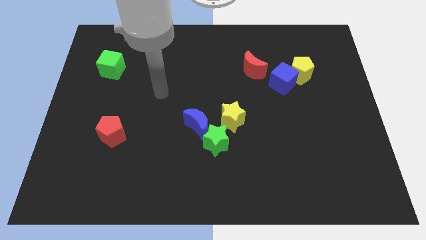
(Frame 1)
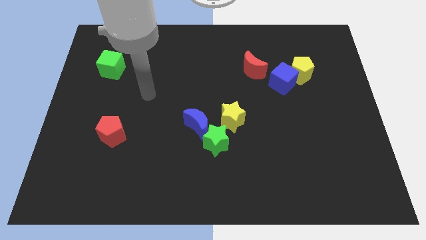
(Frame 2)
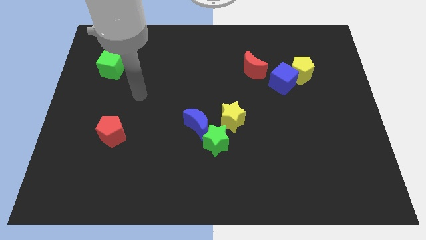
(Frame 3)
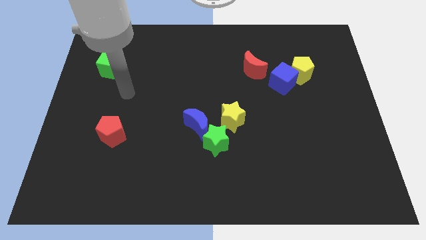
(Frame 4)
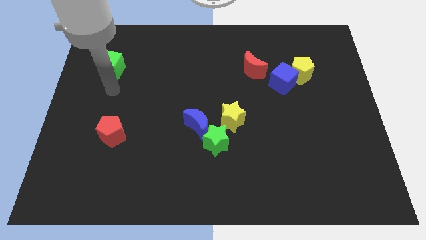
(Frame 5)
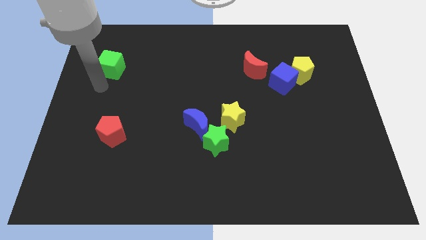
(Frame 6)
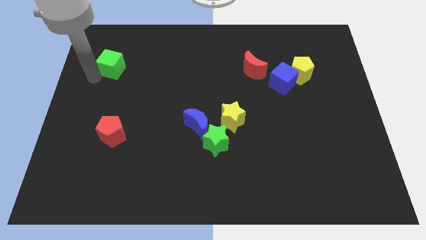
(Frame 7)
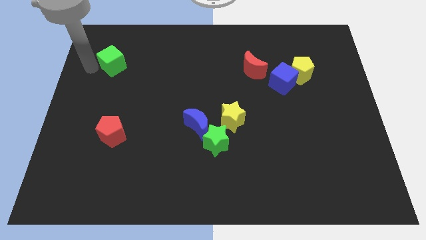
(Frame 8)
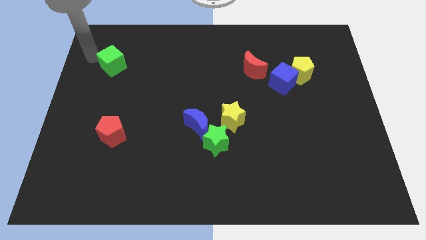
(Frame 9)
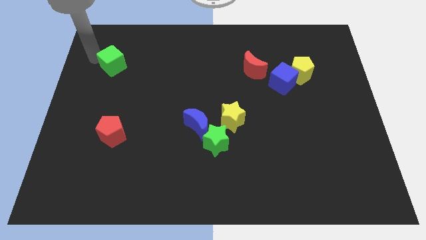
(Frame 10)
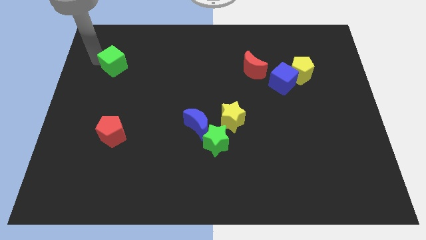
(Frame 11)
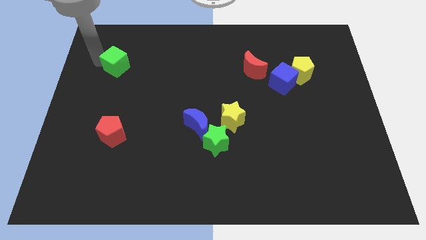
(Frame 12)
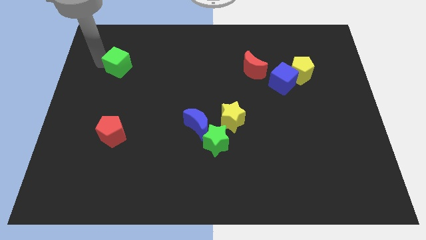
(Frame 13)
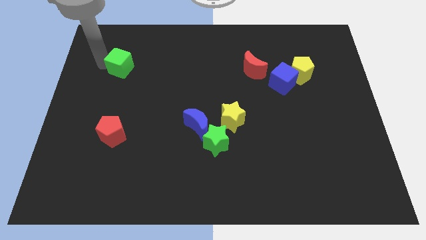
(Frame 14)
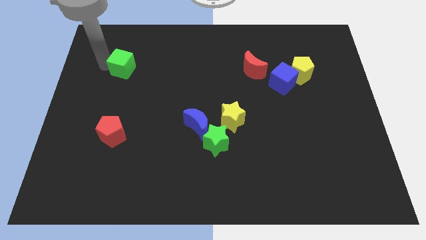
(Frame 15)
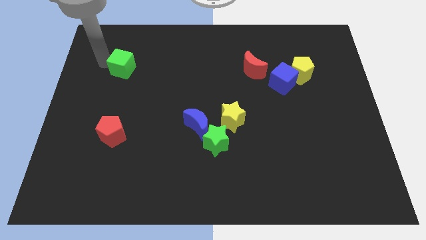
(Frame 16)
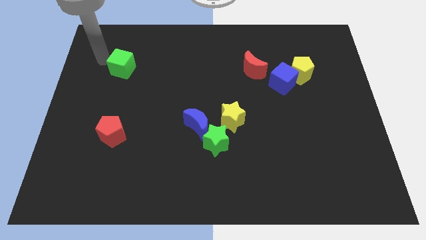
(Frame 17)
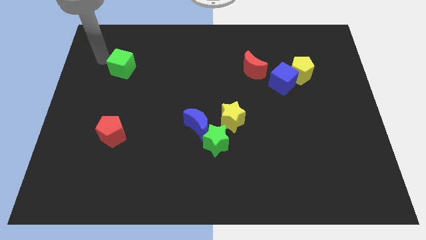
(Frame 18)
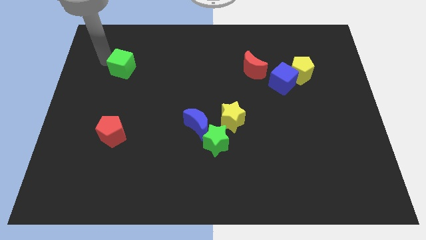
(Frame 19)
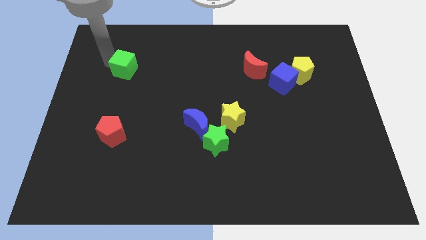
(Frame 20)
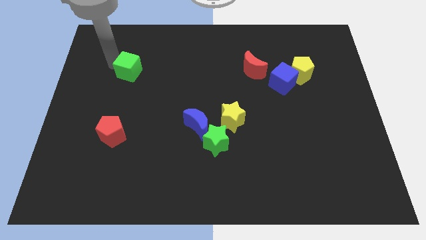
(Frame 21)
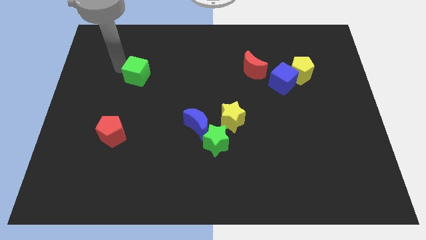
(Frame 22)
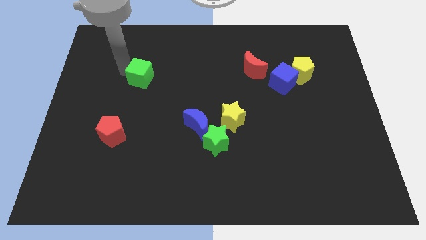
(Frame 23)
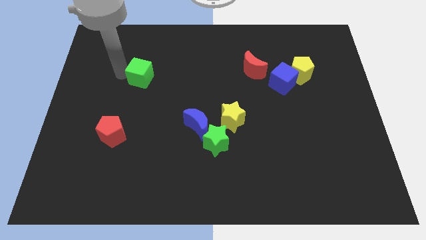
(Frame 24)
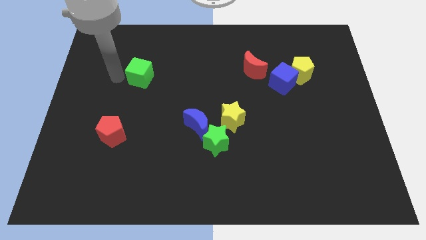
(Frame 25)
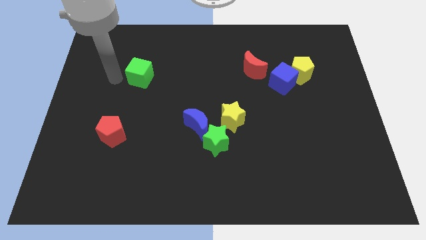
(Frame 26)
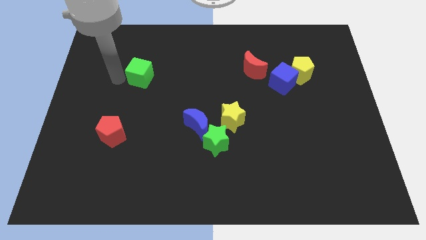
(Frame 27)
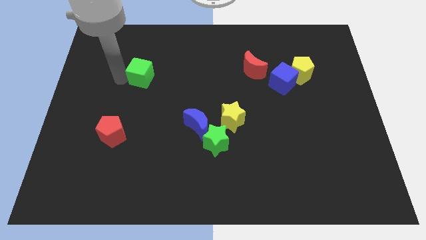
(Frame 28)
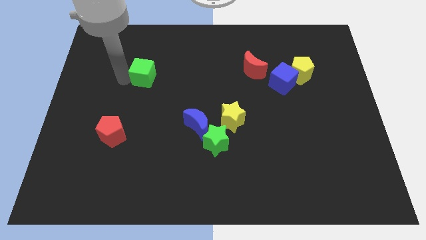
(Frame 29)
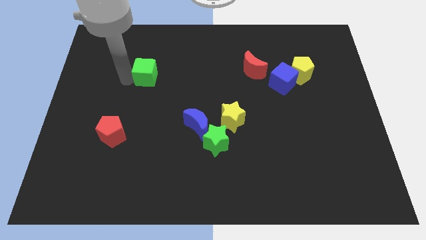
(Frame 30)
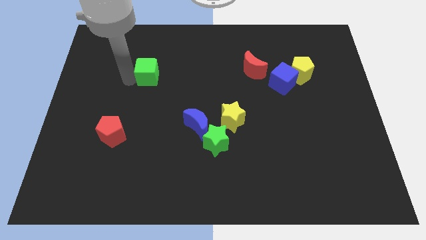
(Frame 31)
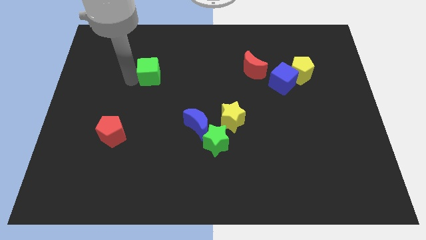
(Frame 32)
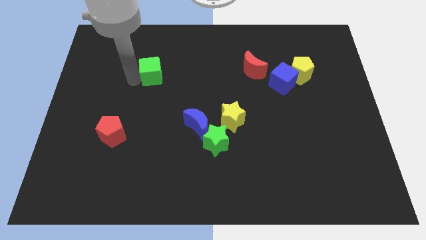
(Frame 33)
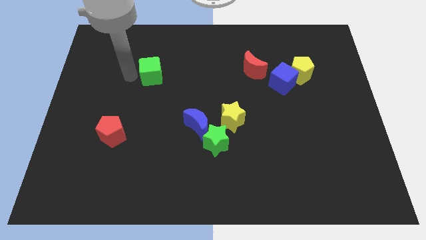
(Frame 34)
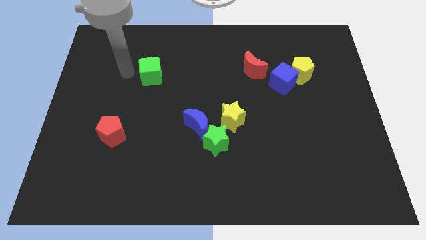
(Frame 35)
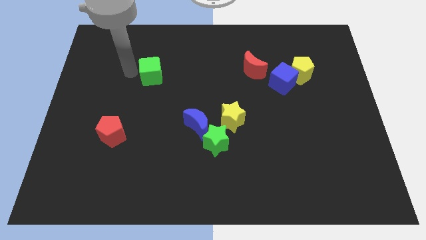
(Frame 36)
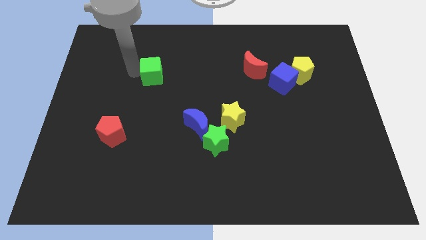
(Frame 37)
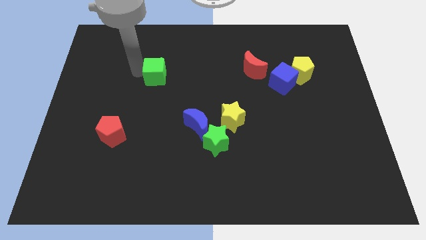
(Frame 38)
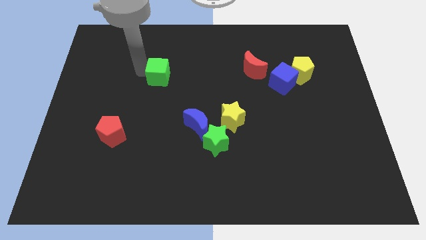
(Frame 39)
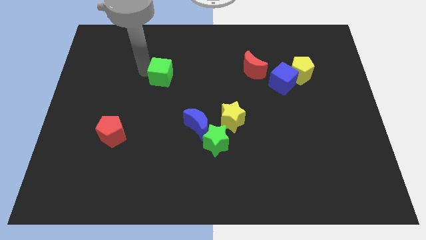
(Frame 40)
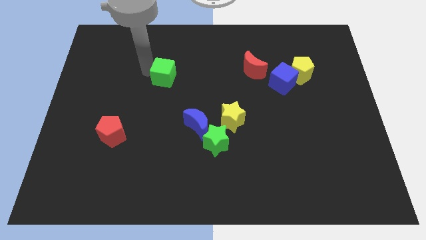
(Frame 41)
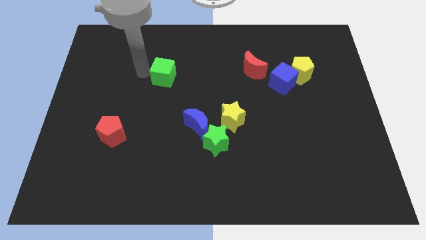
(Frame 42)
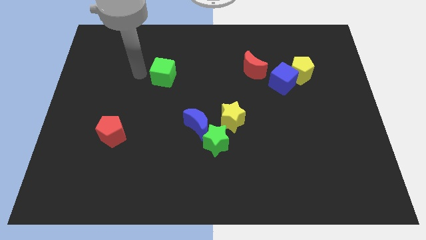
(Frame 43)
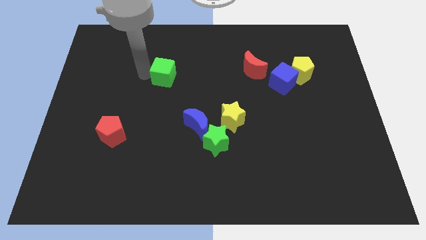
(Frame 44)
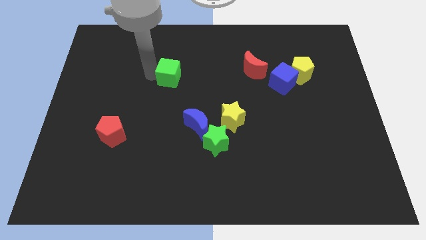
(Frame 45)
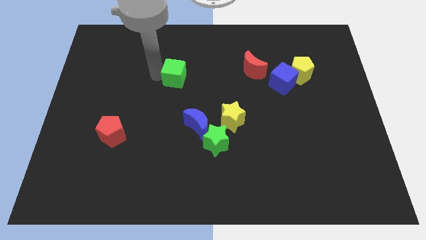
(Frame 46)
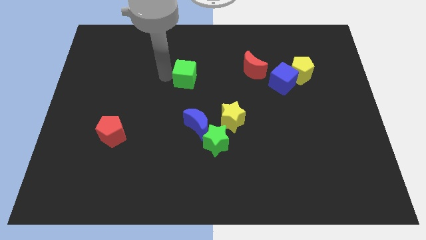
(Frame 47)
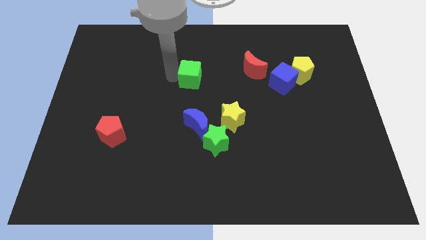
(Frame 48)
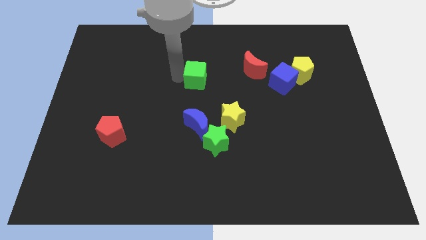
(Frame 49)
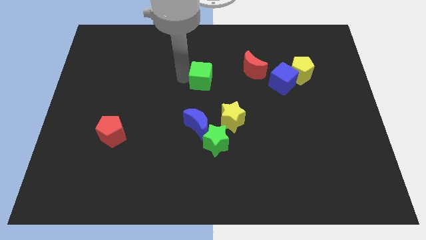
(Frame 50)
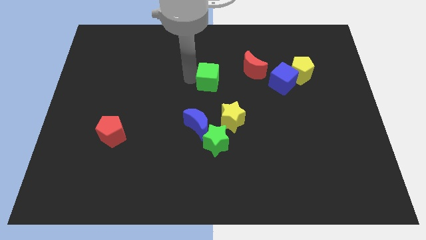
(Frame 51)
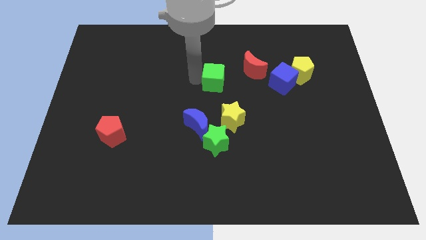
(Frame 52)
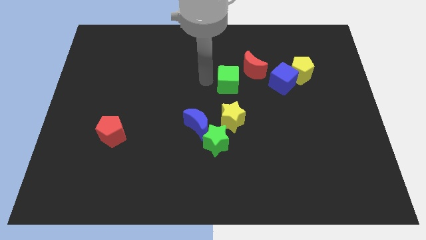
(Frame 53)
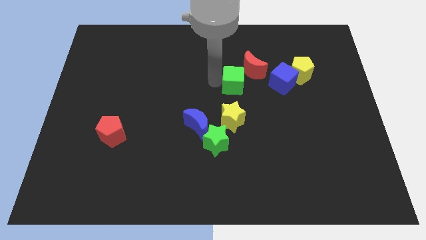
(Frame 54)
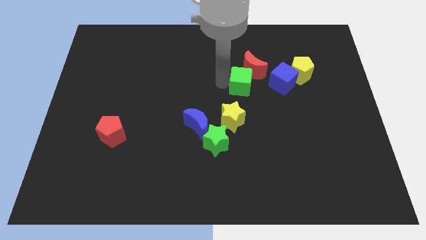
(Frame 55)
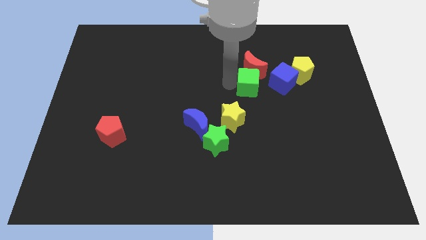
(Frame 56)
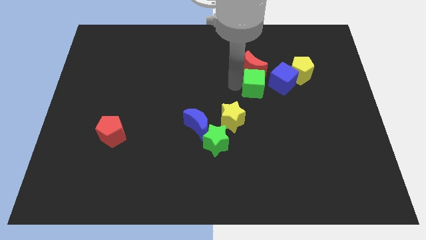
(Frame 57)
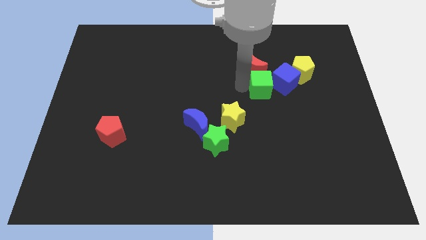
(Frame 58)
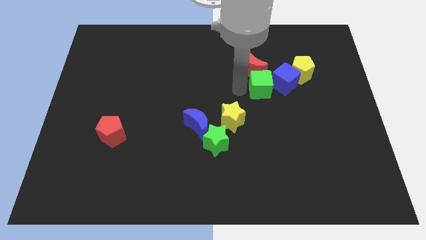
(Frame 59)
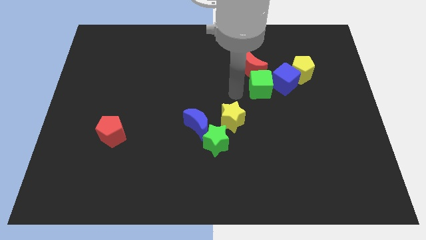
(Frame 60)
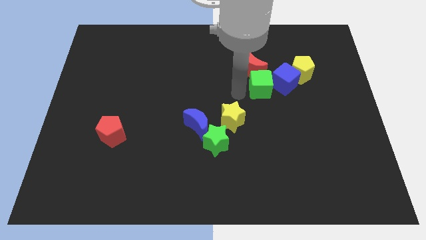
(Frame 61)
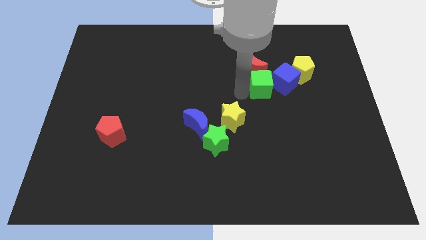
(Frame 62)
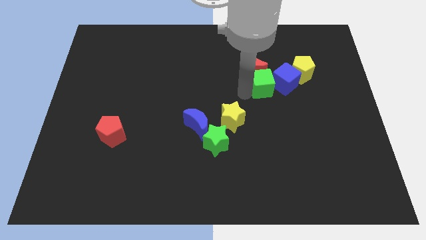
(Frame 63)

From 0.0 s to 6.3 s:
move the green cube towards the blue cube
